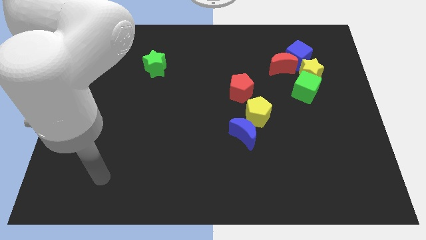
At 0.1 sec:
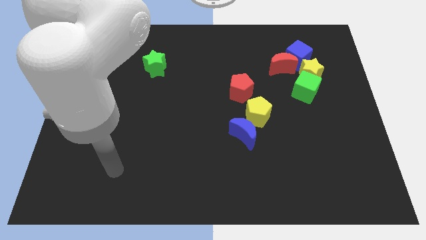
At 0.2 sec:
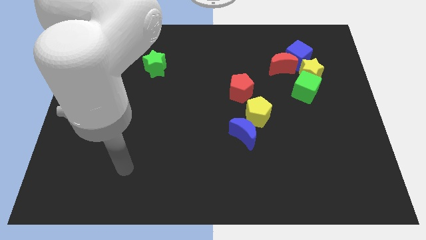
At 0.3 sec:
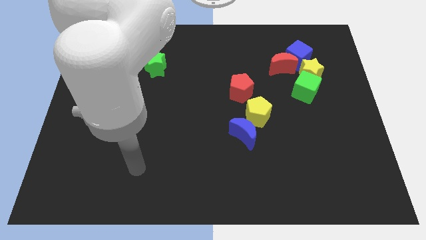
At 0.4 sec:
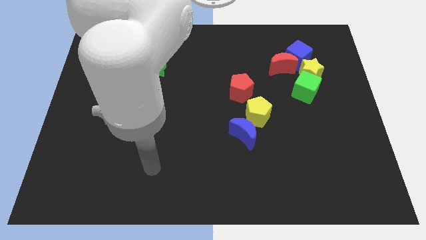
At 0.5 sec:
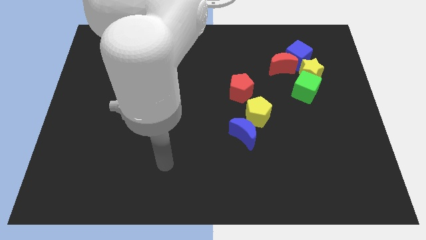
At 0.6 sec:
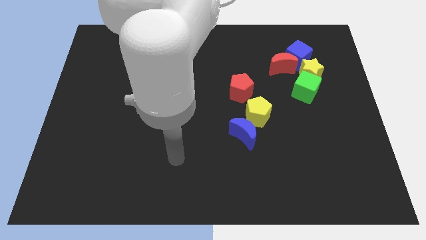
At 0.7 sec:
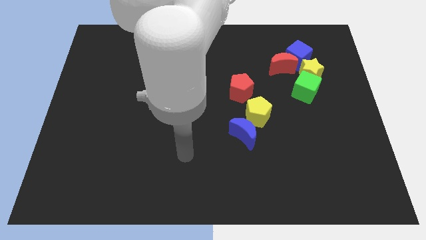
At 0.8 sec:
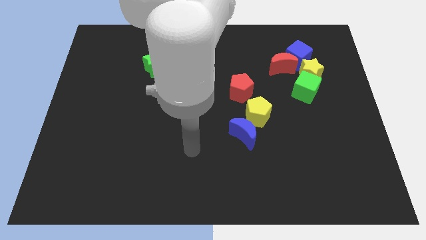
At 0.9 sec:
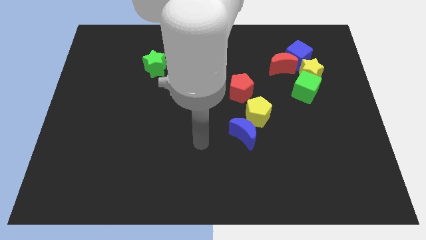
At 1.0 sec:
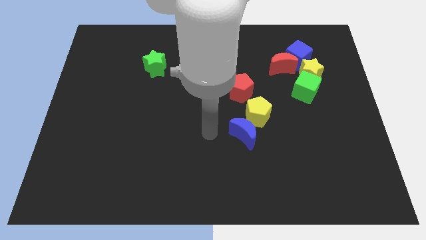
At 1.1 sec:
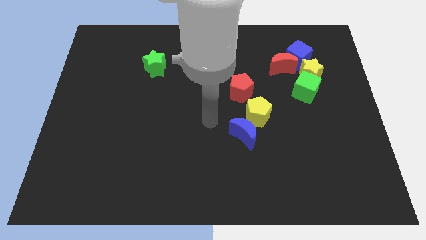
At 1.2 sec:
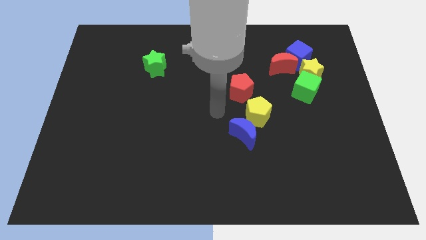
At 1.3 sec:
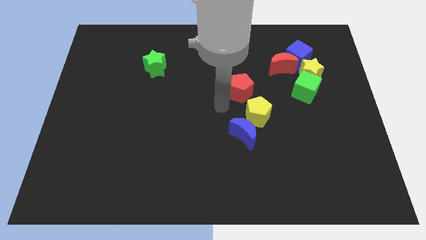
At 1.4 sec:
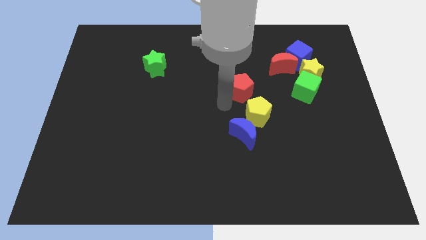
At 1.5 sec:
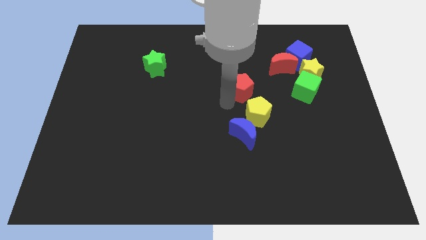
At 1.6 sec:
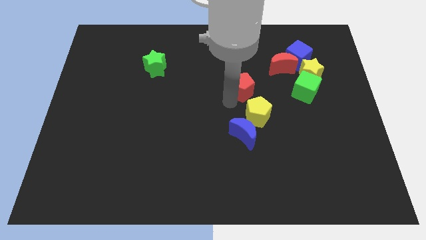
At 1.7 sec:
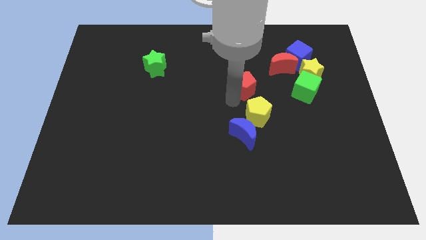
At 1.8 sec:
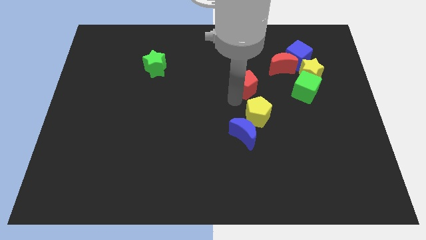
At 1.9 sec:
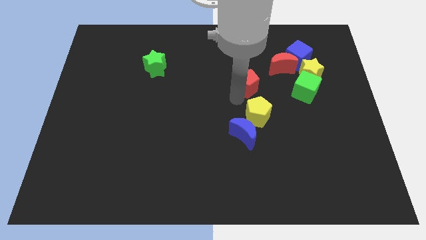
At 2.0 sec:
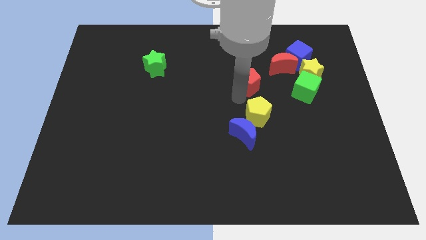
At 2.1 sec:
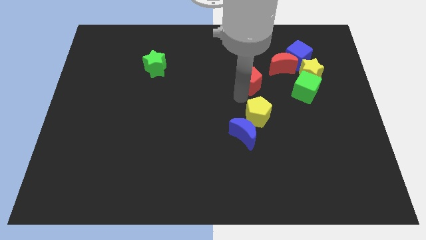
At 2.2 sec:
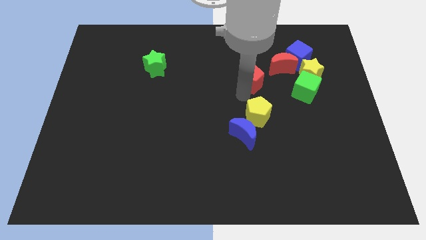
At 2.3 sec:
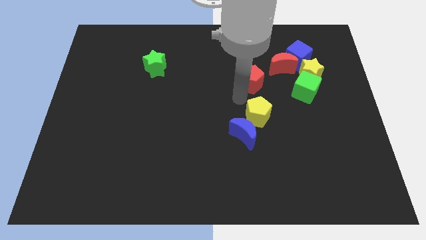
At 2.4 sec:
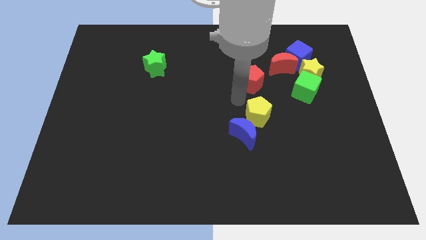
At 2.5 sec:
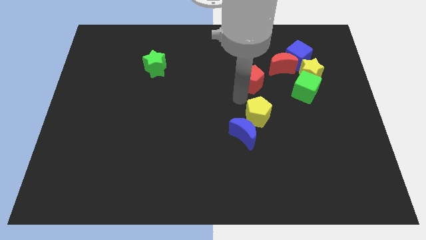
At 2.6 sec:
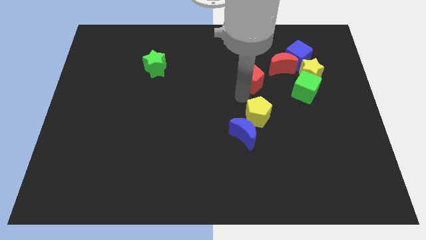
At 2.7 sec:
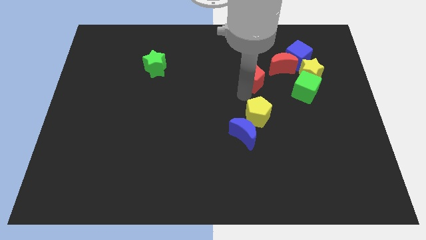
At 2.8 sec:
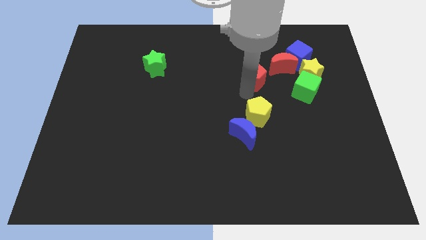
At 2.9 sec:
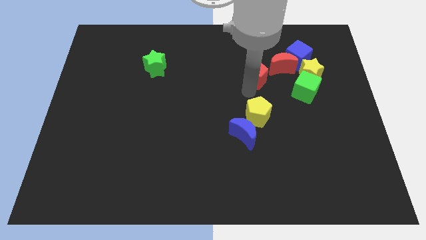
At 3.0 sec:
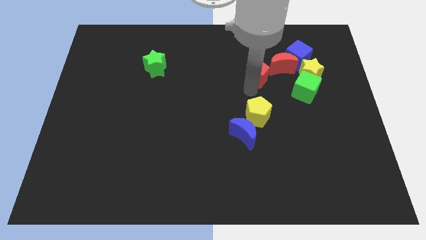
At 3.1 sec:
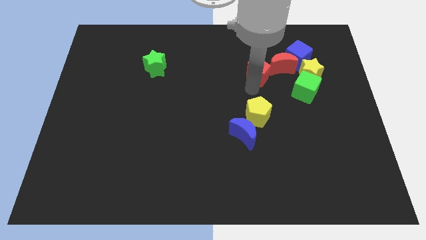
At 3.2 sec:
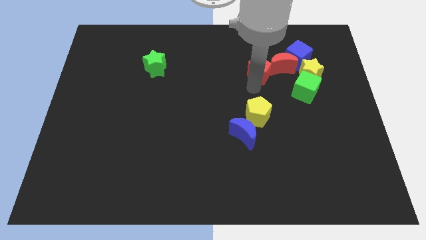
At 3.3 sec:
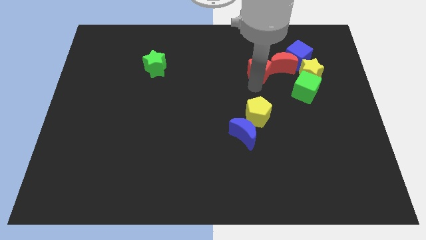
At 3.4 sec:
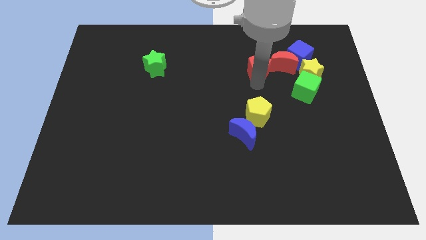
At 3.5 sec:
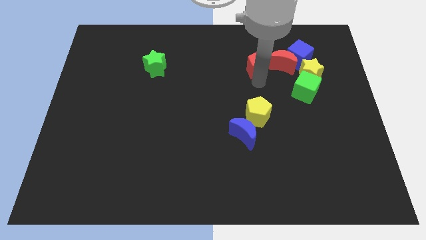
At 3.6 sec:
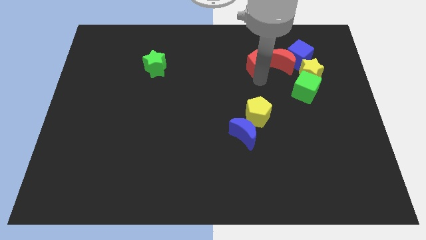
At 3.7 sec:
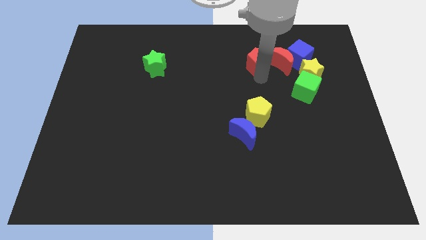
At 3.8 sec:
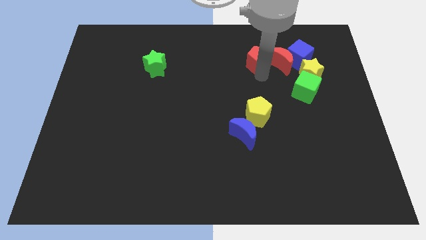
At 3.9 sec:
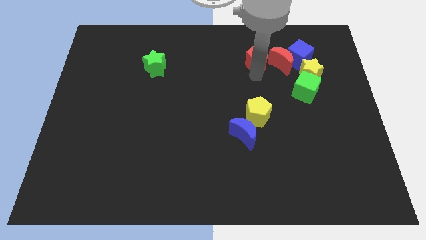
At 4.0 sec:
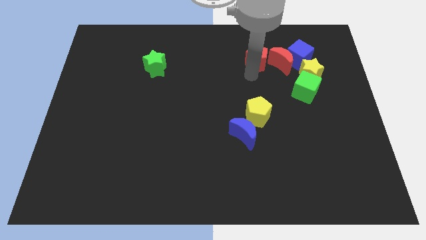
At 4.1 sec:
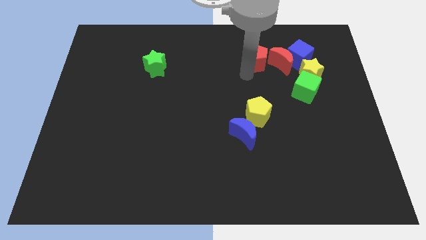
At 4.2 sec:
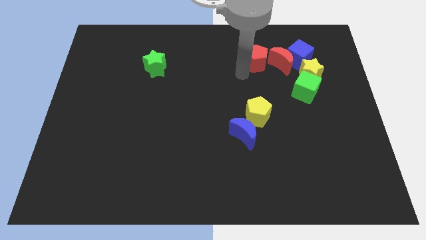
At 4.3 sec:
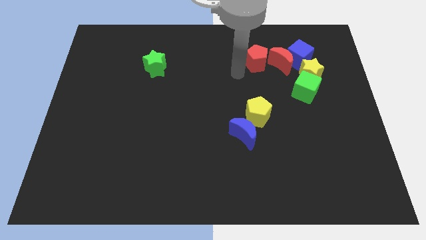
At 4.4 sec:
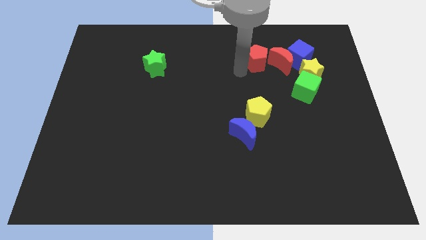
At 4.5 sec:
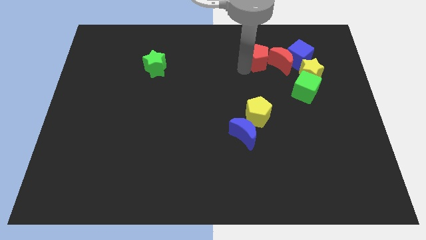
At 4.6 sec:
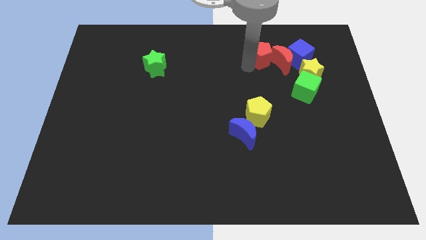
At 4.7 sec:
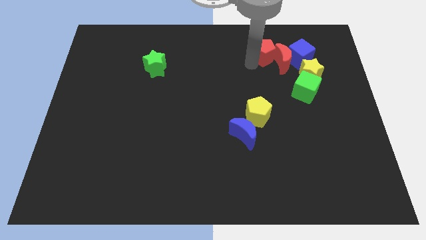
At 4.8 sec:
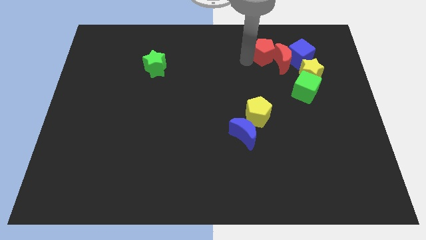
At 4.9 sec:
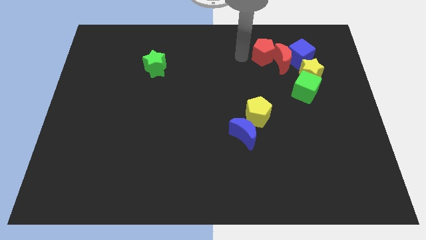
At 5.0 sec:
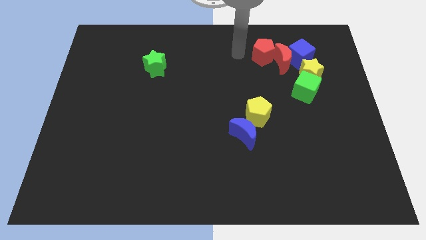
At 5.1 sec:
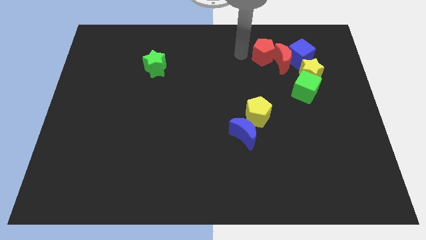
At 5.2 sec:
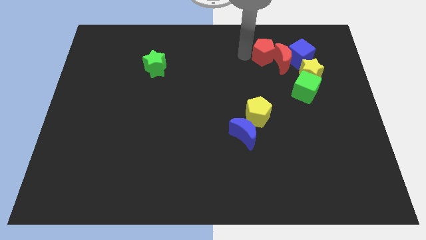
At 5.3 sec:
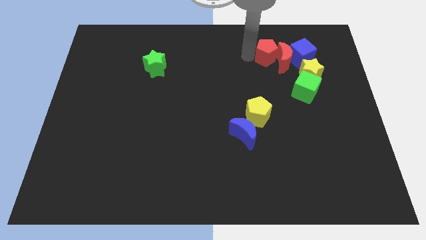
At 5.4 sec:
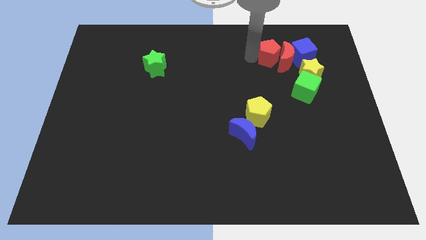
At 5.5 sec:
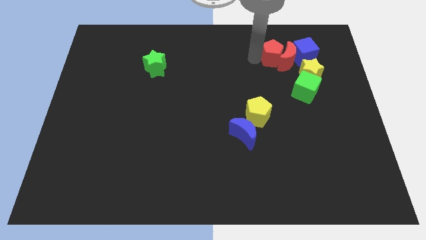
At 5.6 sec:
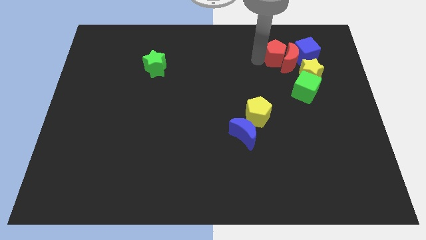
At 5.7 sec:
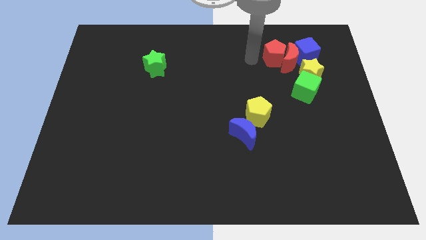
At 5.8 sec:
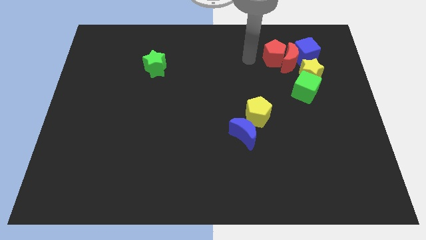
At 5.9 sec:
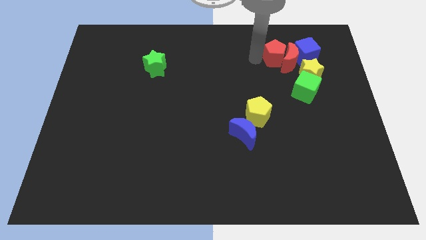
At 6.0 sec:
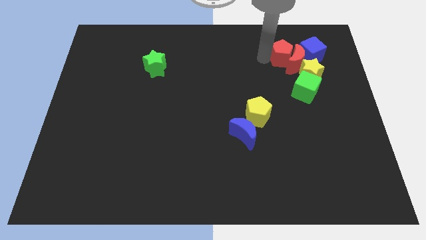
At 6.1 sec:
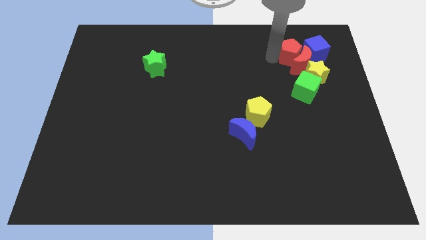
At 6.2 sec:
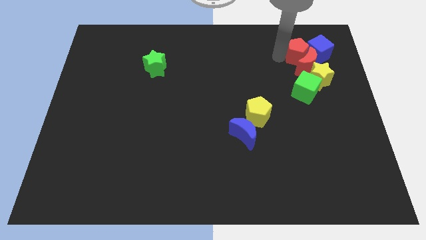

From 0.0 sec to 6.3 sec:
move the red pentagon close to the blue cube
